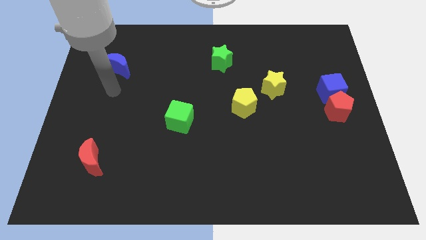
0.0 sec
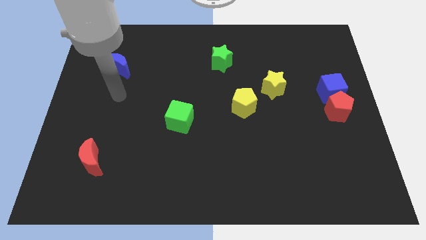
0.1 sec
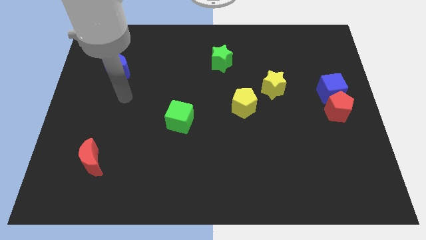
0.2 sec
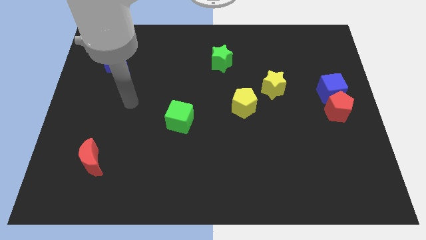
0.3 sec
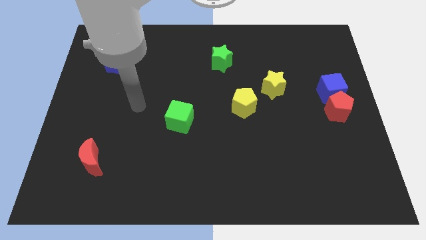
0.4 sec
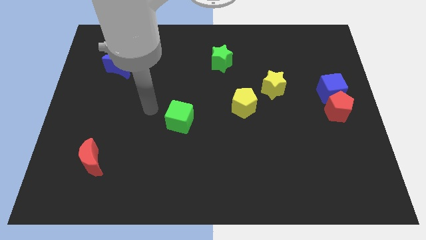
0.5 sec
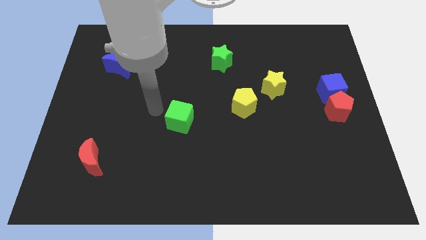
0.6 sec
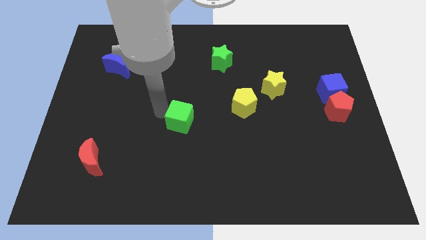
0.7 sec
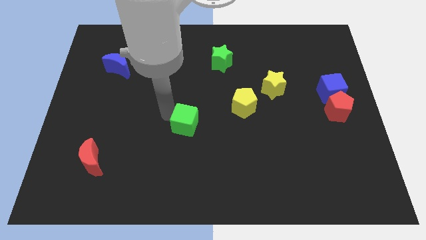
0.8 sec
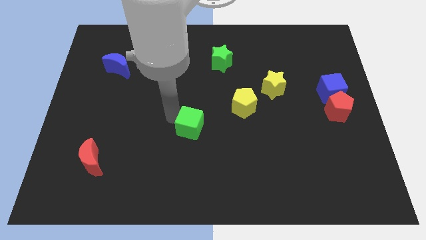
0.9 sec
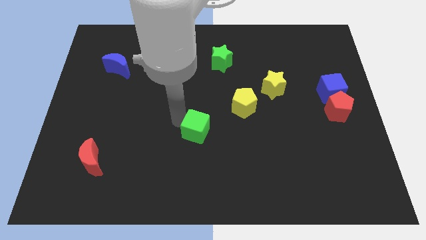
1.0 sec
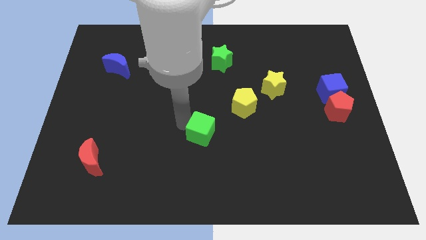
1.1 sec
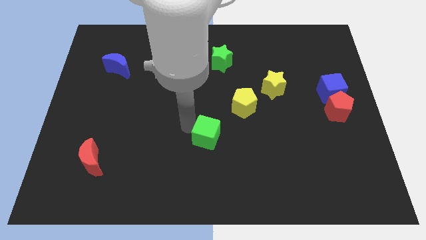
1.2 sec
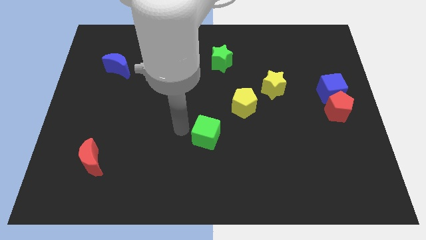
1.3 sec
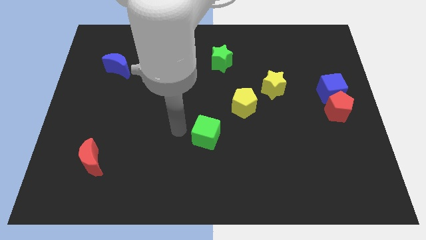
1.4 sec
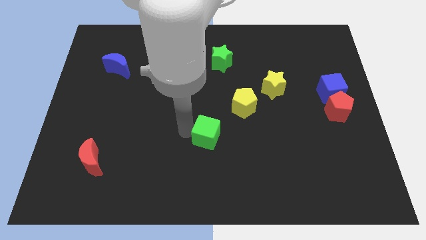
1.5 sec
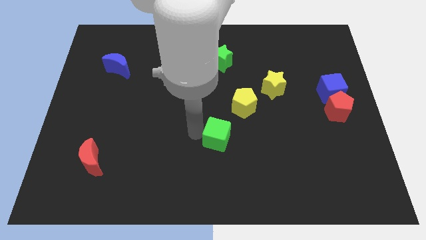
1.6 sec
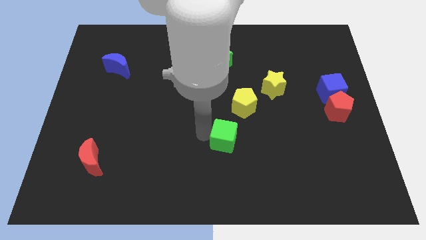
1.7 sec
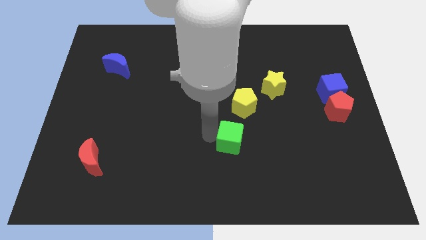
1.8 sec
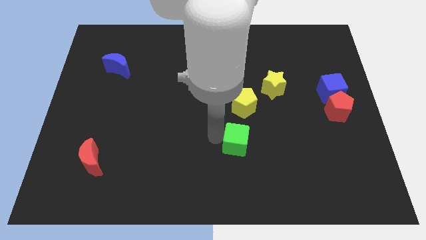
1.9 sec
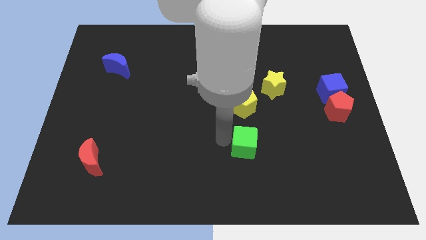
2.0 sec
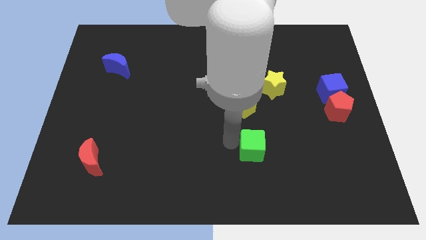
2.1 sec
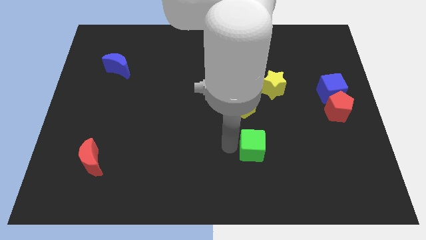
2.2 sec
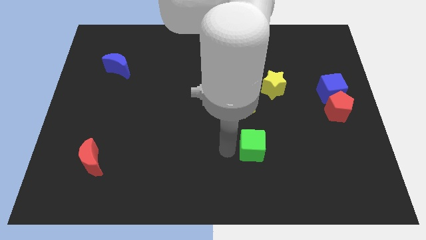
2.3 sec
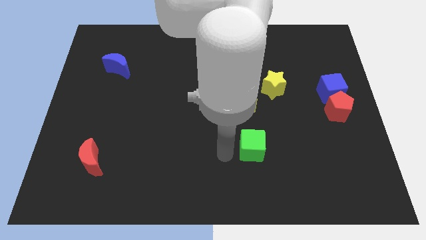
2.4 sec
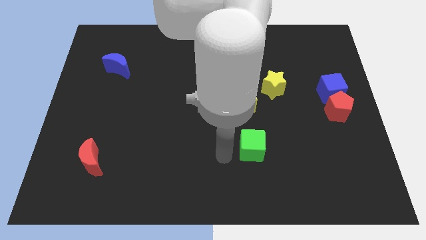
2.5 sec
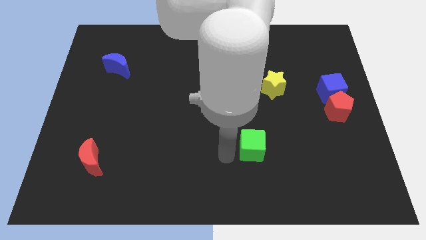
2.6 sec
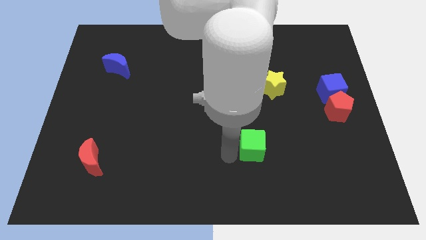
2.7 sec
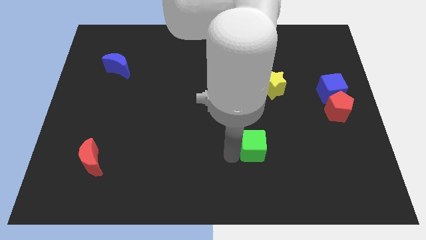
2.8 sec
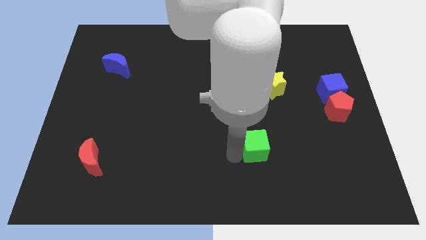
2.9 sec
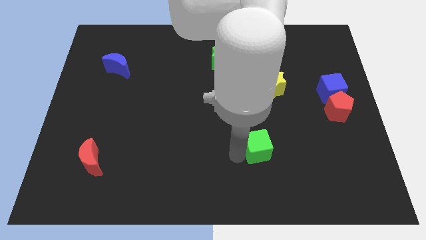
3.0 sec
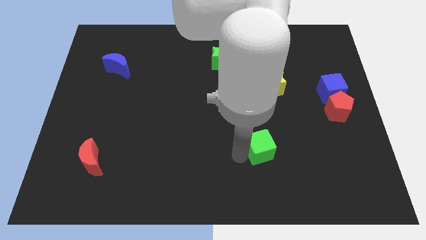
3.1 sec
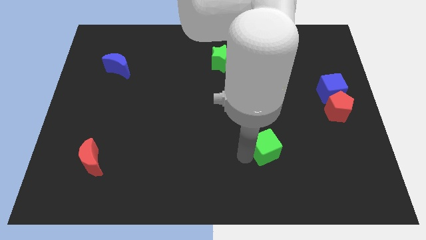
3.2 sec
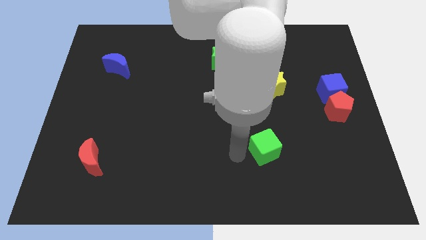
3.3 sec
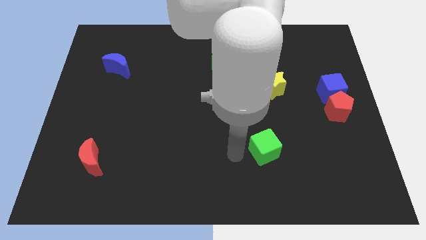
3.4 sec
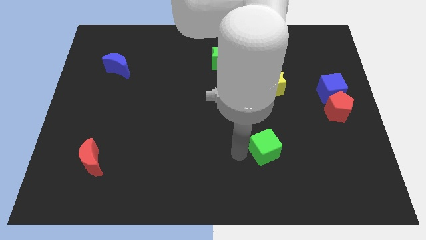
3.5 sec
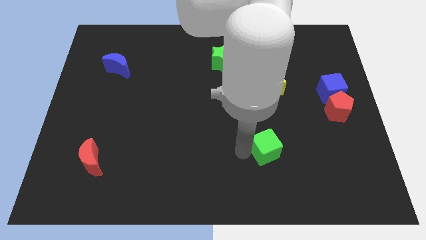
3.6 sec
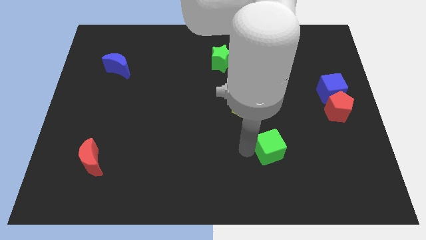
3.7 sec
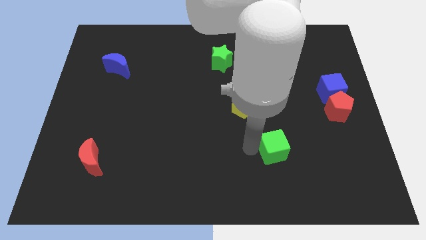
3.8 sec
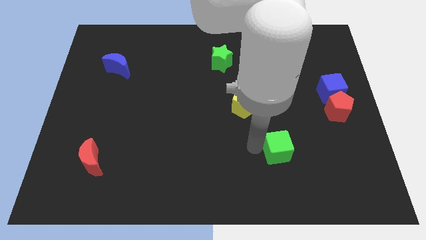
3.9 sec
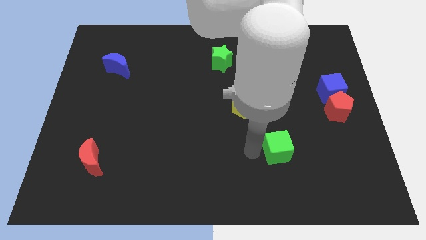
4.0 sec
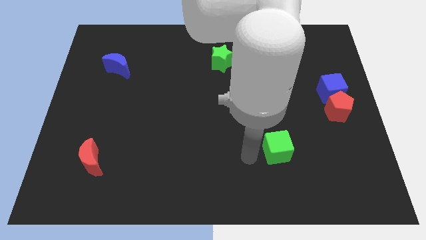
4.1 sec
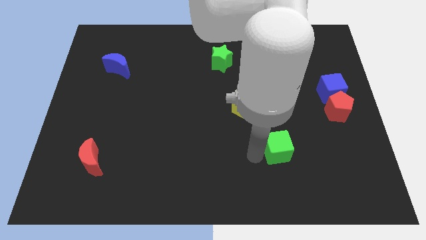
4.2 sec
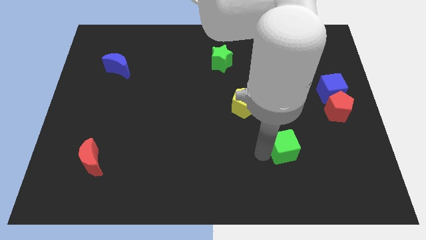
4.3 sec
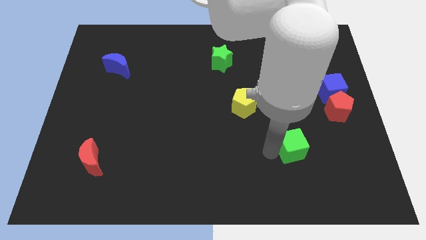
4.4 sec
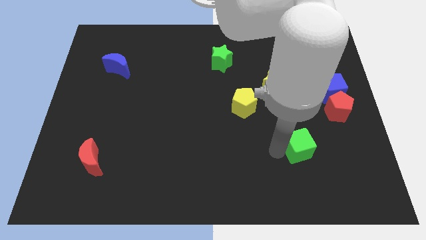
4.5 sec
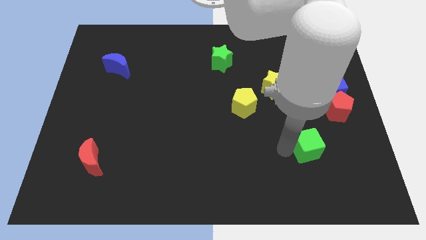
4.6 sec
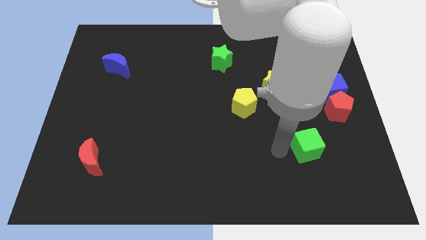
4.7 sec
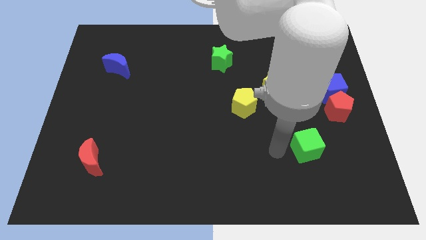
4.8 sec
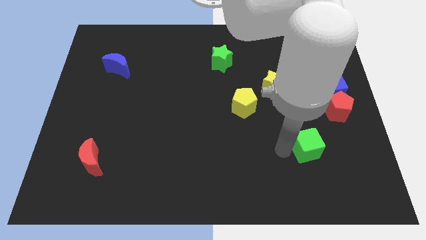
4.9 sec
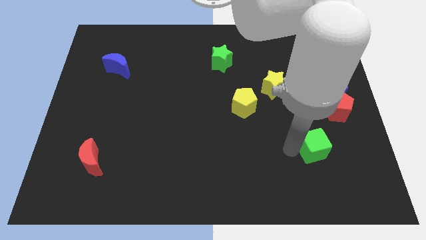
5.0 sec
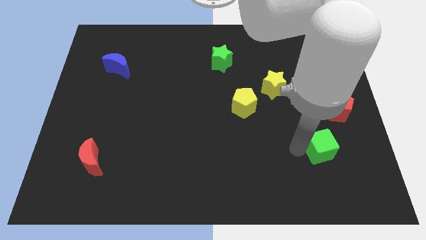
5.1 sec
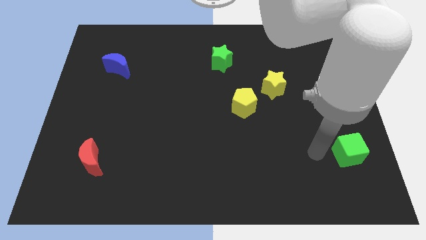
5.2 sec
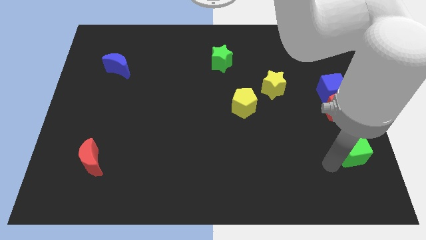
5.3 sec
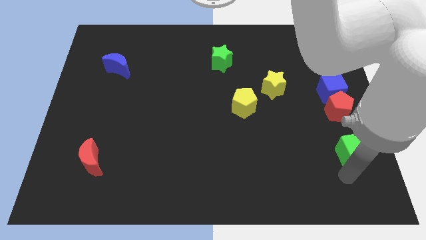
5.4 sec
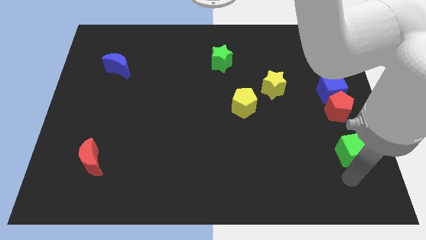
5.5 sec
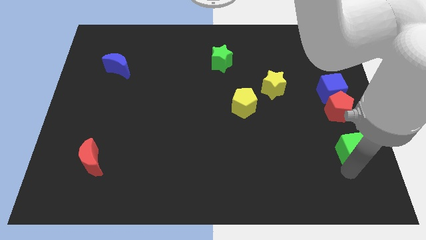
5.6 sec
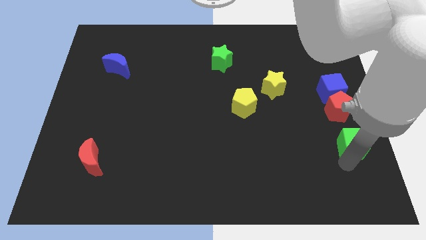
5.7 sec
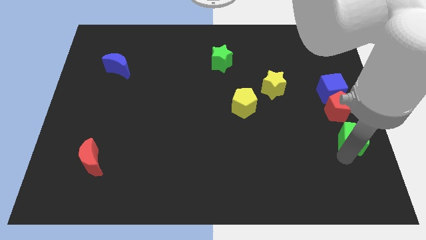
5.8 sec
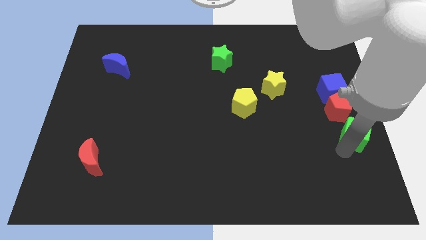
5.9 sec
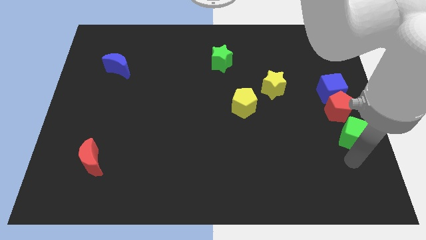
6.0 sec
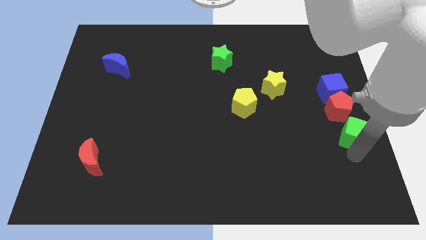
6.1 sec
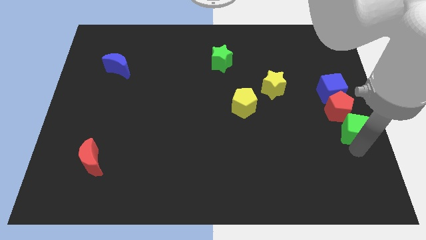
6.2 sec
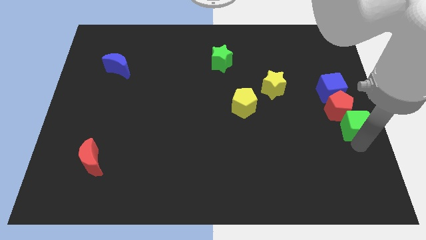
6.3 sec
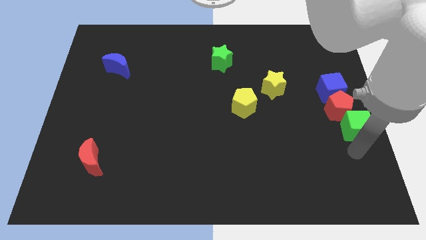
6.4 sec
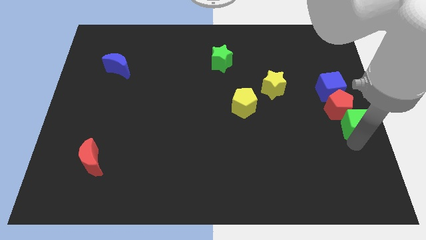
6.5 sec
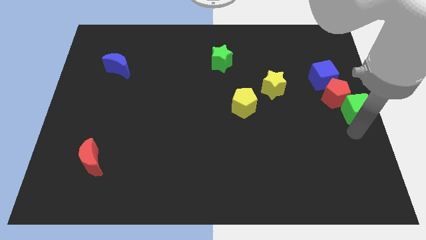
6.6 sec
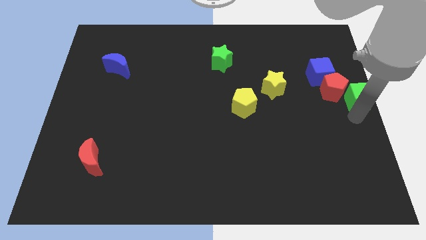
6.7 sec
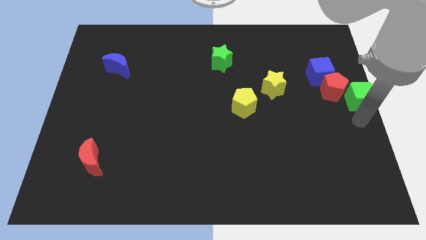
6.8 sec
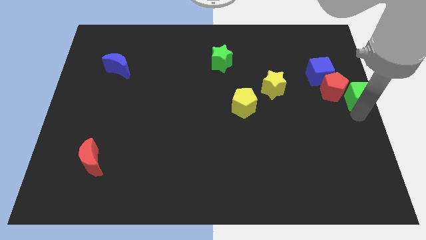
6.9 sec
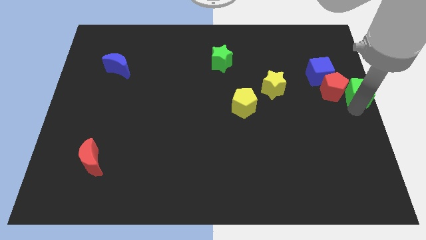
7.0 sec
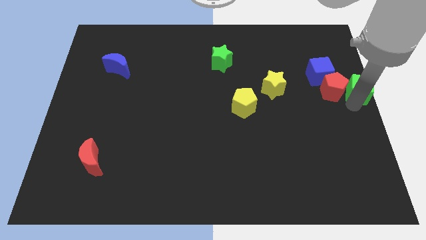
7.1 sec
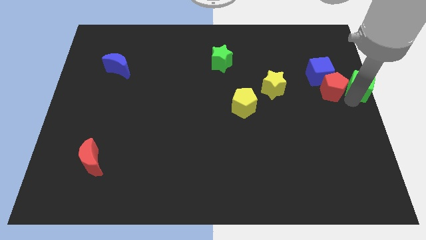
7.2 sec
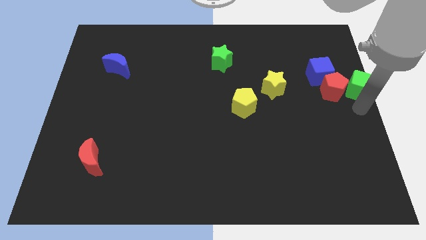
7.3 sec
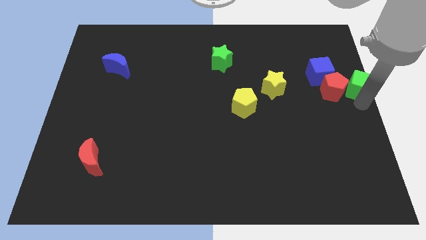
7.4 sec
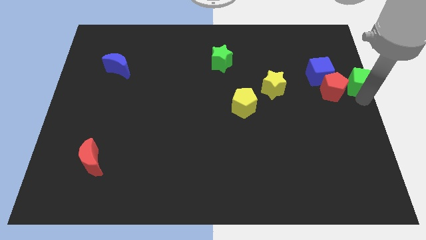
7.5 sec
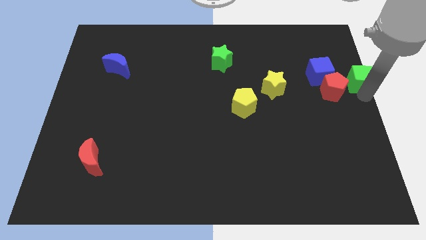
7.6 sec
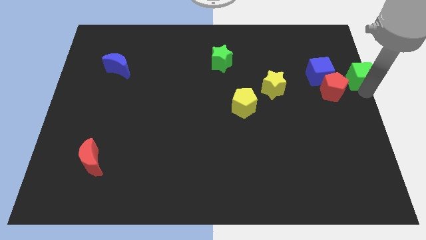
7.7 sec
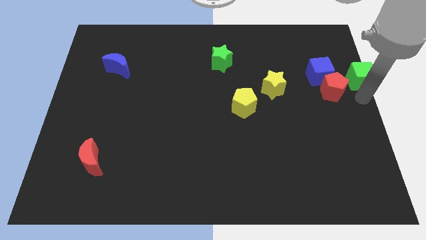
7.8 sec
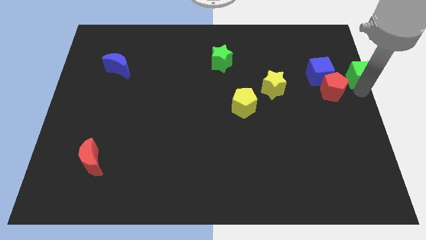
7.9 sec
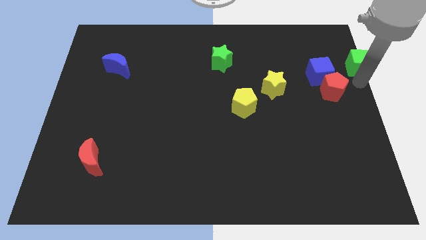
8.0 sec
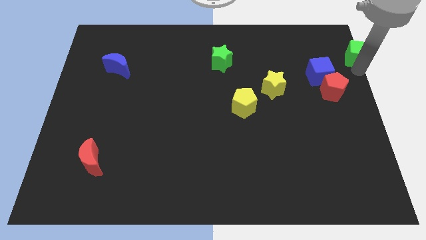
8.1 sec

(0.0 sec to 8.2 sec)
push the green cube to the top right corner
